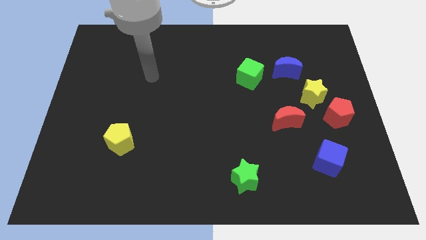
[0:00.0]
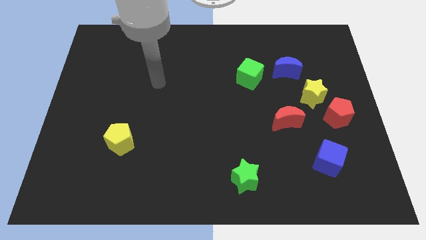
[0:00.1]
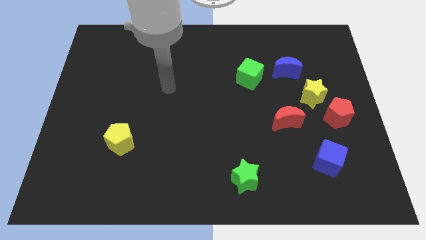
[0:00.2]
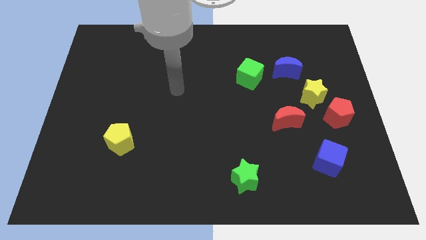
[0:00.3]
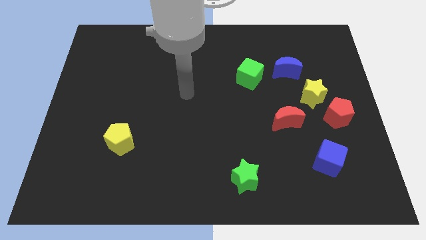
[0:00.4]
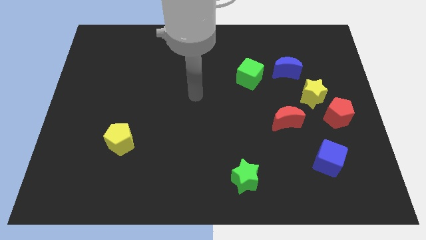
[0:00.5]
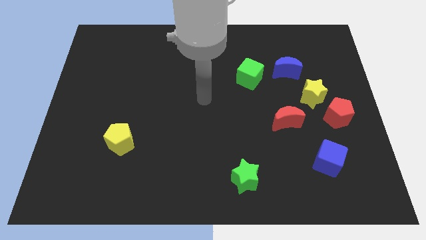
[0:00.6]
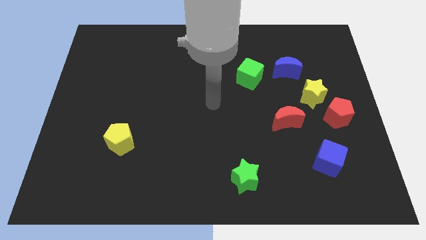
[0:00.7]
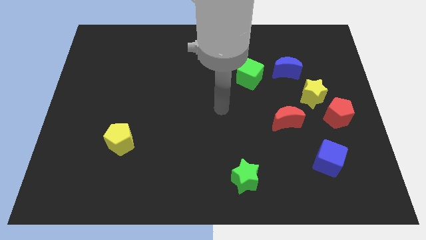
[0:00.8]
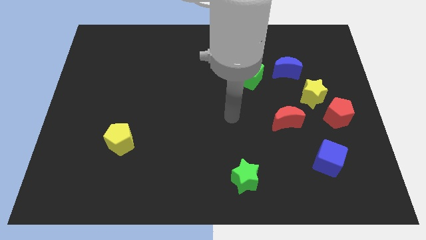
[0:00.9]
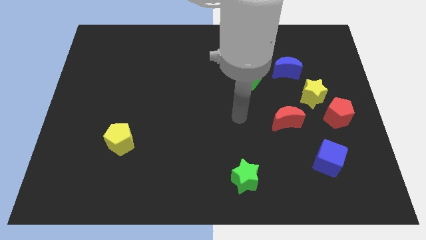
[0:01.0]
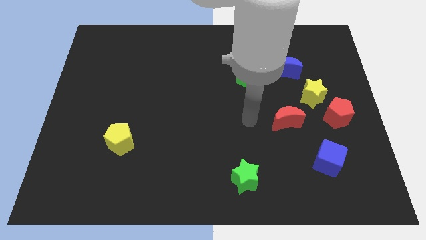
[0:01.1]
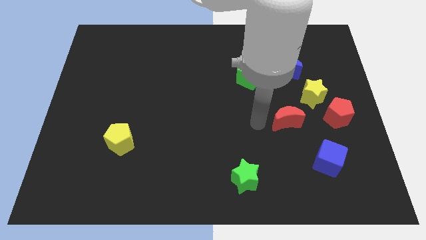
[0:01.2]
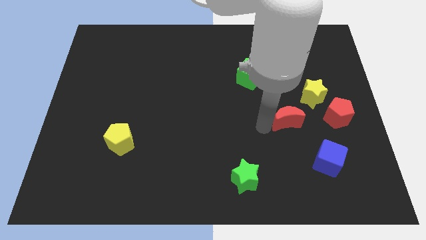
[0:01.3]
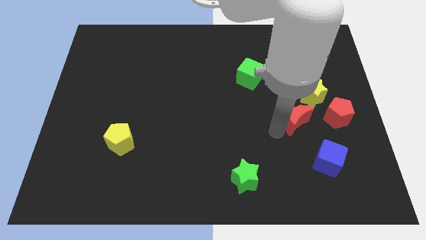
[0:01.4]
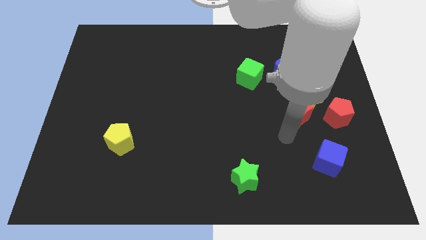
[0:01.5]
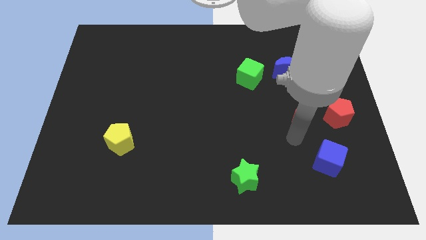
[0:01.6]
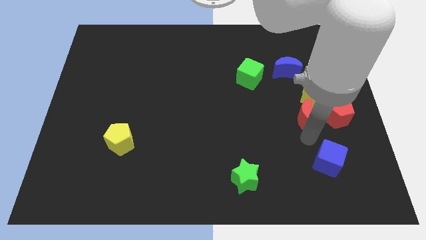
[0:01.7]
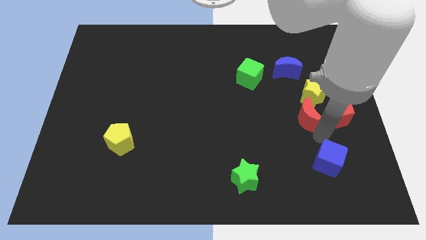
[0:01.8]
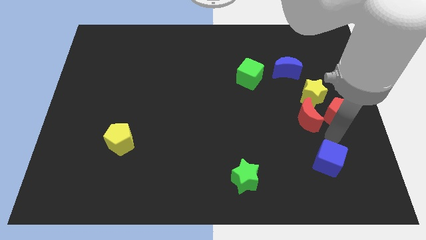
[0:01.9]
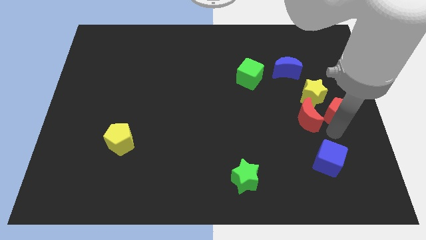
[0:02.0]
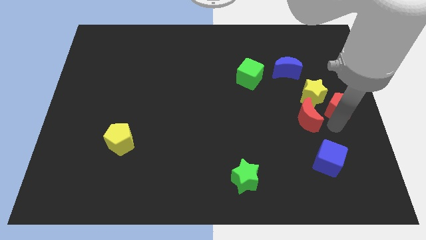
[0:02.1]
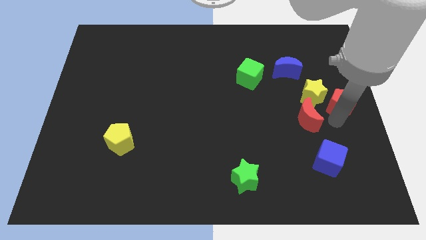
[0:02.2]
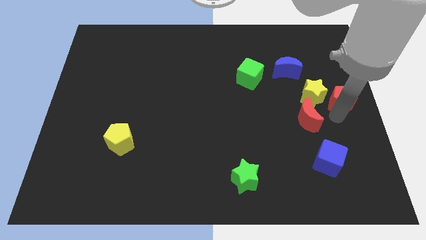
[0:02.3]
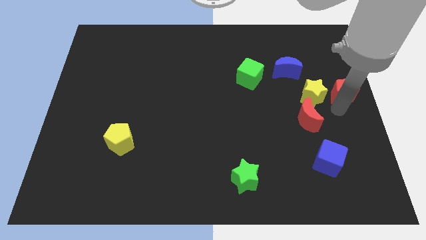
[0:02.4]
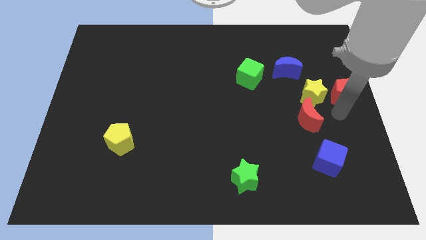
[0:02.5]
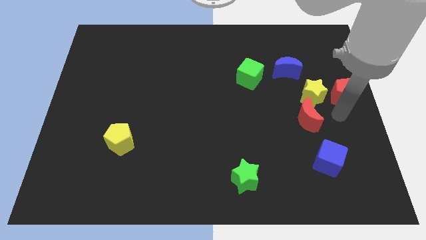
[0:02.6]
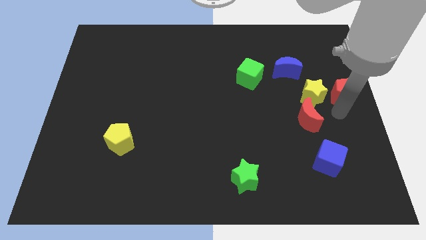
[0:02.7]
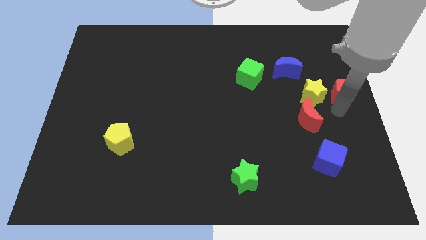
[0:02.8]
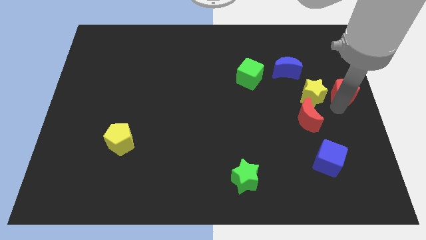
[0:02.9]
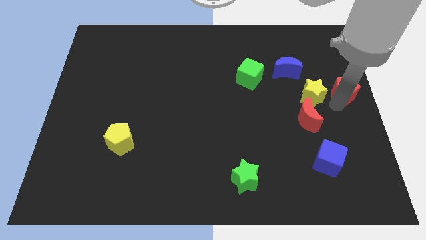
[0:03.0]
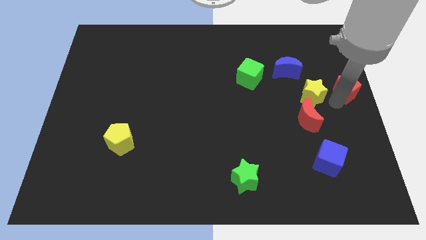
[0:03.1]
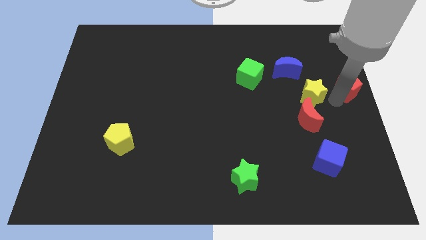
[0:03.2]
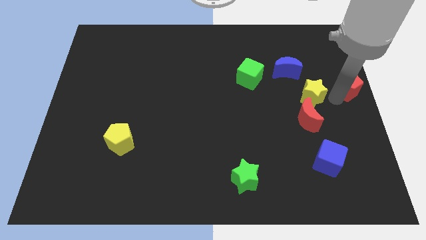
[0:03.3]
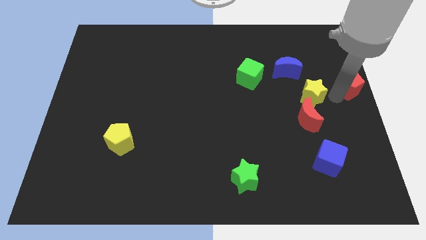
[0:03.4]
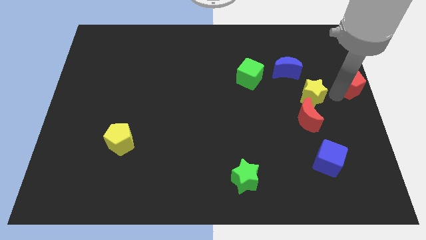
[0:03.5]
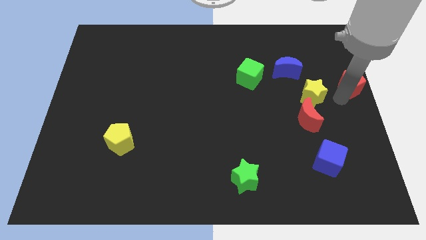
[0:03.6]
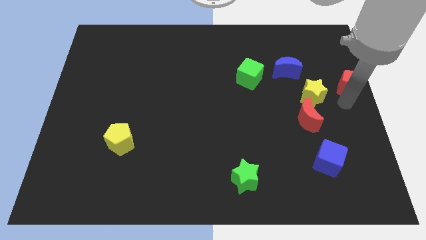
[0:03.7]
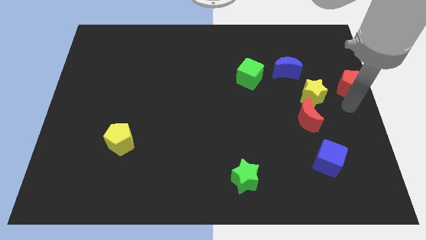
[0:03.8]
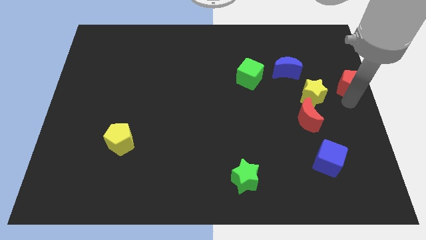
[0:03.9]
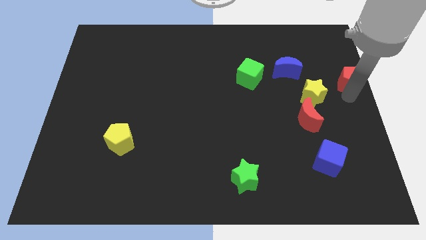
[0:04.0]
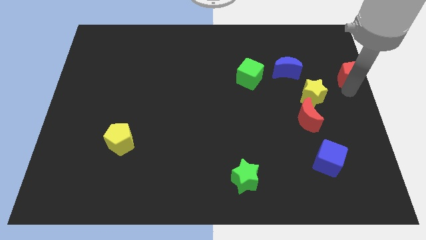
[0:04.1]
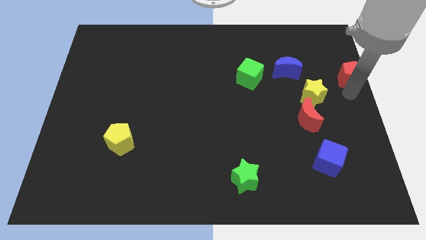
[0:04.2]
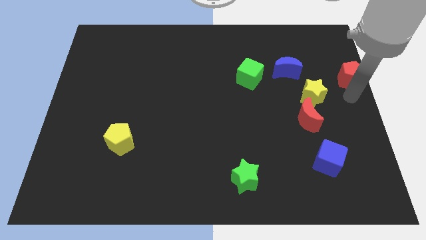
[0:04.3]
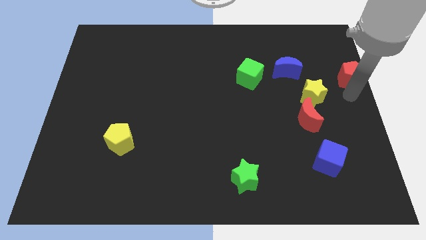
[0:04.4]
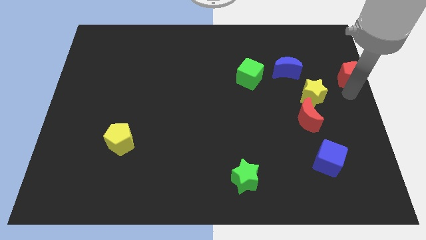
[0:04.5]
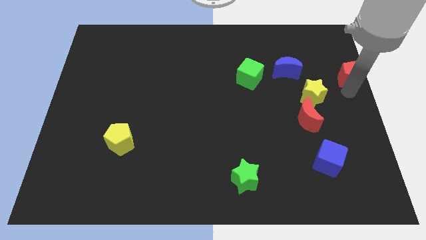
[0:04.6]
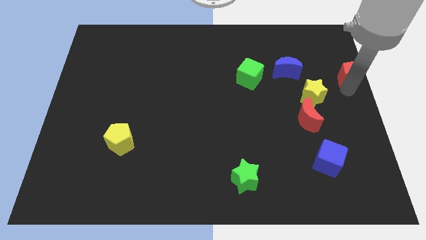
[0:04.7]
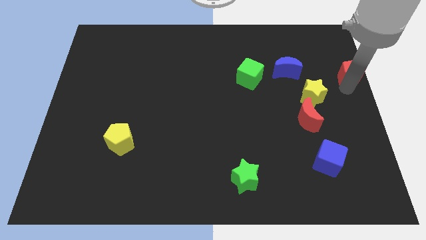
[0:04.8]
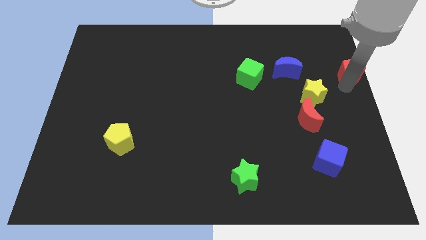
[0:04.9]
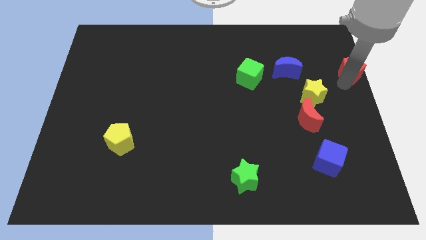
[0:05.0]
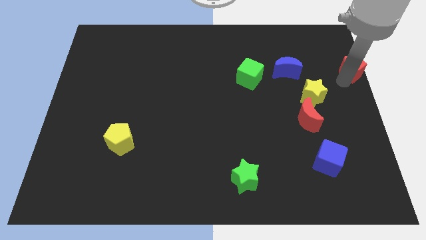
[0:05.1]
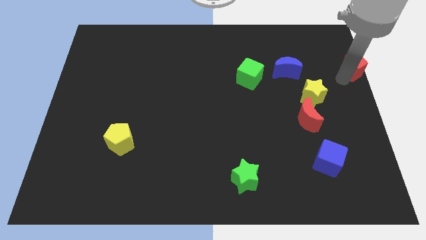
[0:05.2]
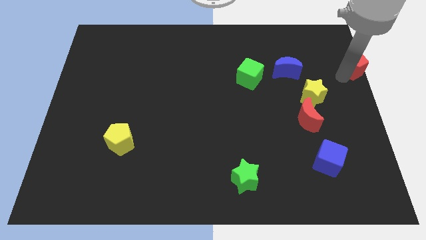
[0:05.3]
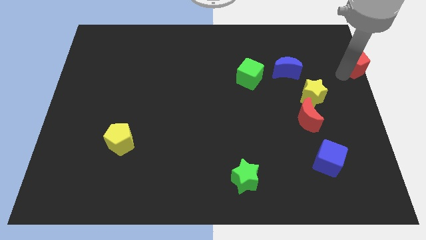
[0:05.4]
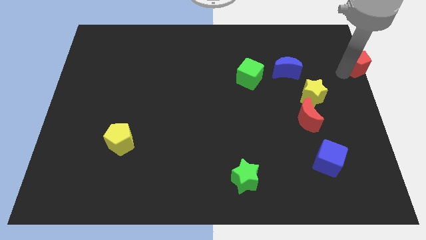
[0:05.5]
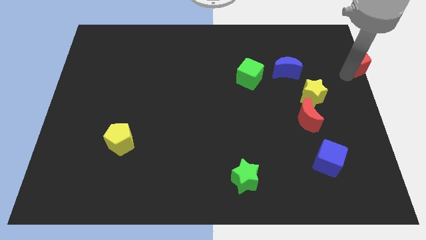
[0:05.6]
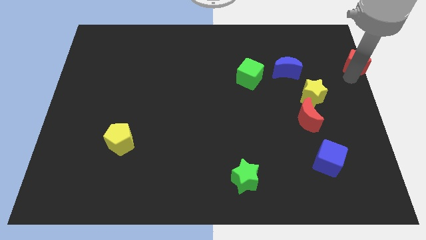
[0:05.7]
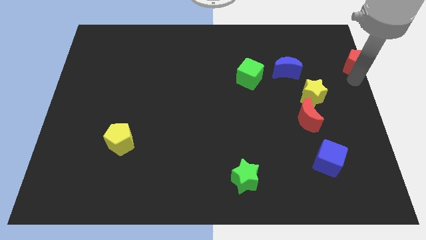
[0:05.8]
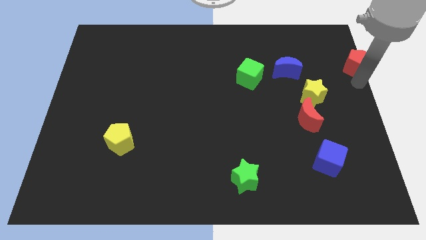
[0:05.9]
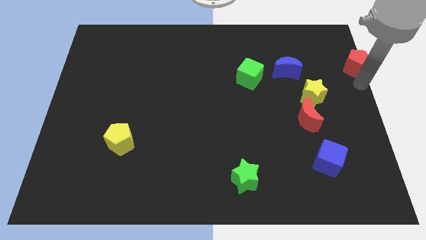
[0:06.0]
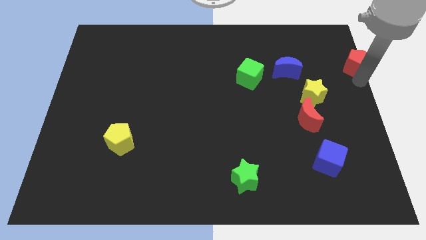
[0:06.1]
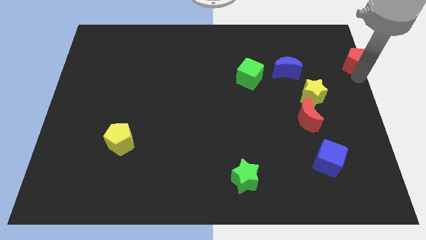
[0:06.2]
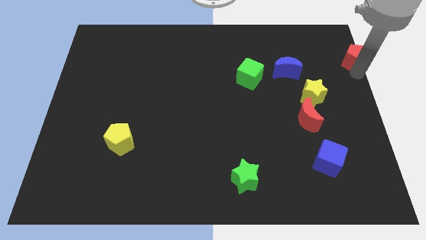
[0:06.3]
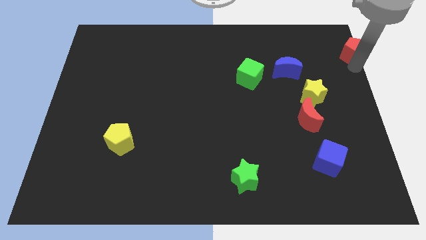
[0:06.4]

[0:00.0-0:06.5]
put the red pentagon to the top right corner
